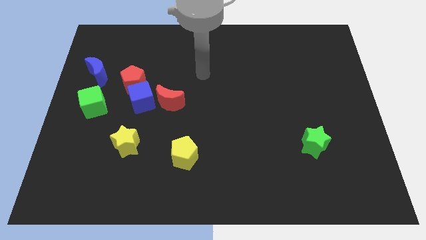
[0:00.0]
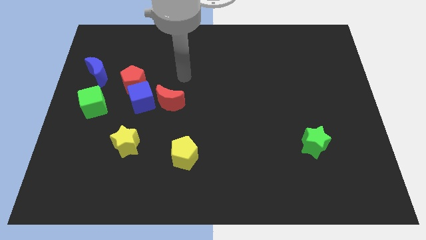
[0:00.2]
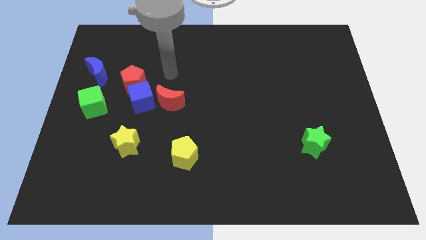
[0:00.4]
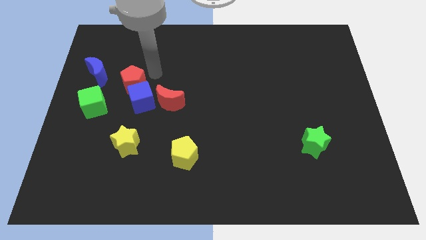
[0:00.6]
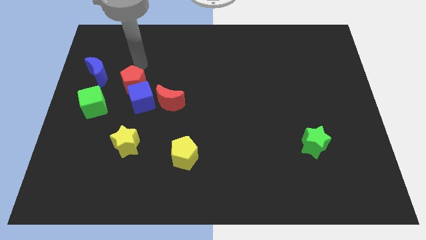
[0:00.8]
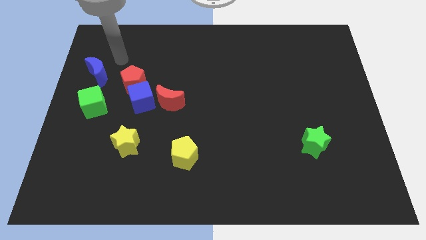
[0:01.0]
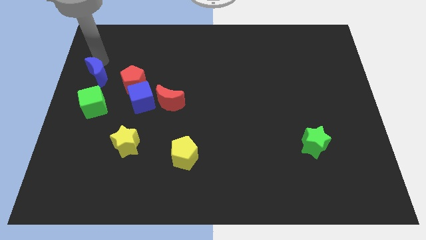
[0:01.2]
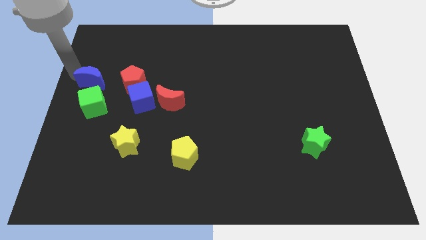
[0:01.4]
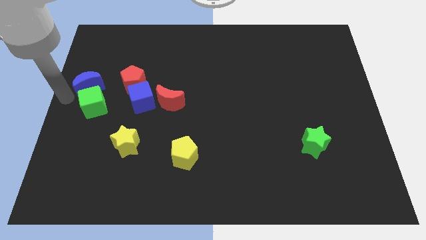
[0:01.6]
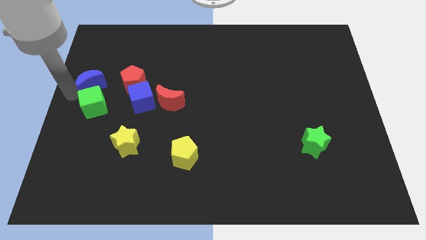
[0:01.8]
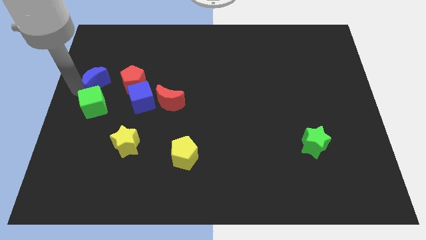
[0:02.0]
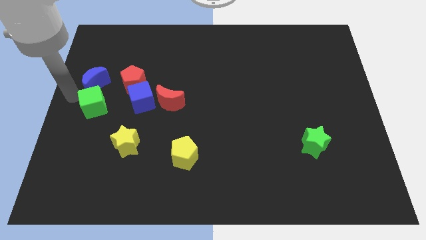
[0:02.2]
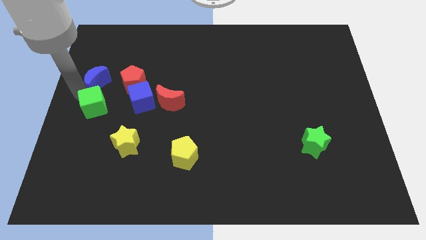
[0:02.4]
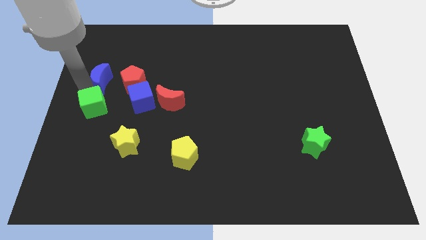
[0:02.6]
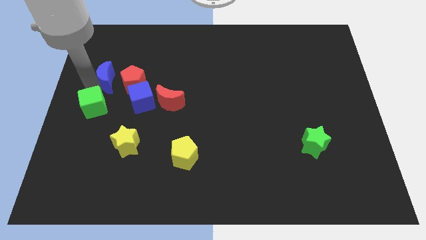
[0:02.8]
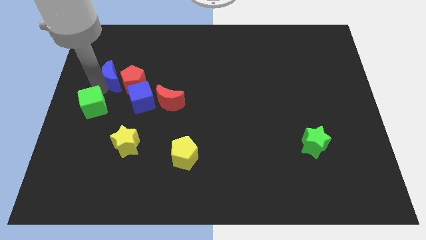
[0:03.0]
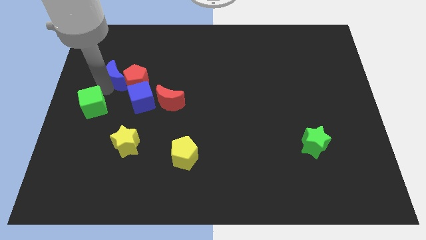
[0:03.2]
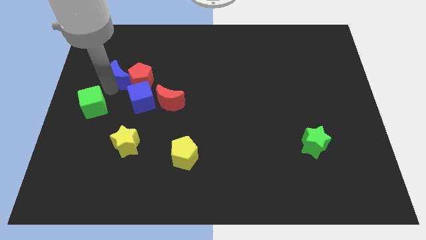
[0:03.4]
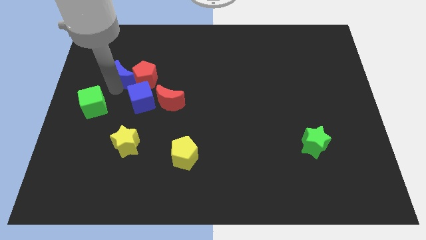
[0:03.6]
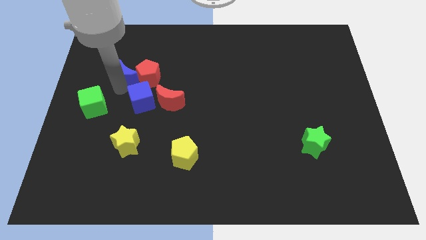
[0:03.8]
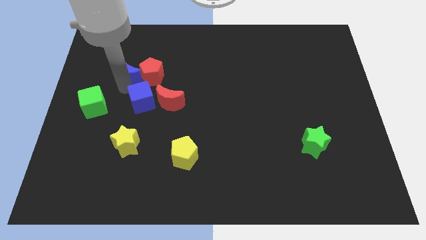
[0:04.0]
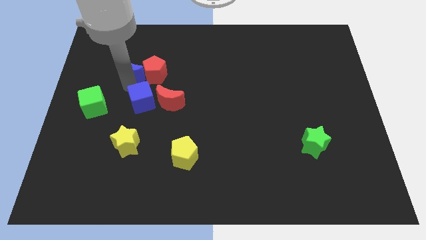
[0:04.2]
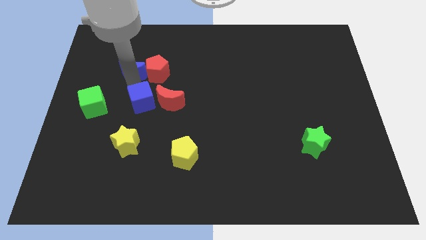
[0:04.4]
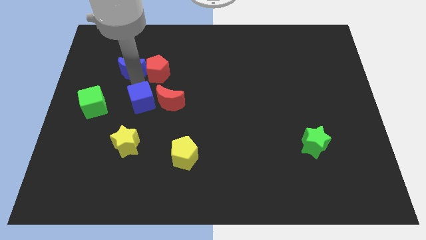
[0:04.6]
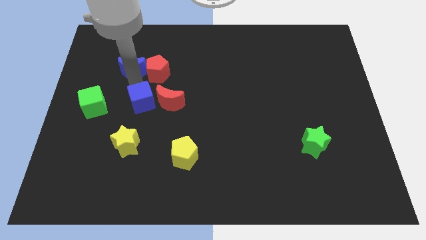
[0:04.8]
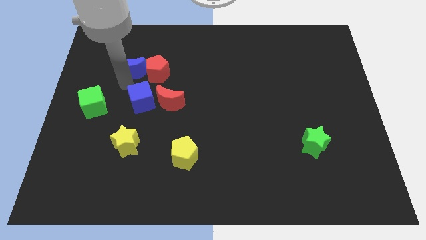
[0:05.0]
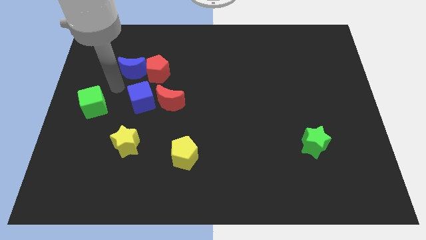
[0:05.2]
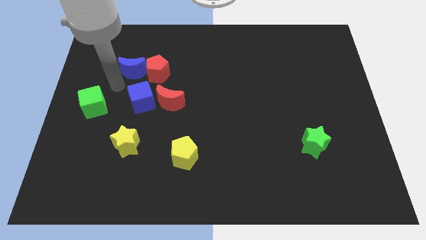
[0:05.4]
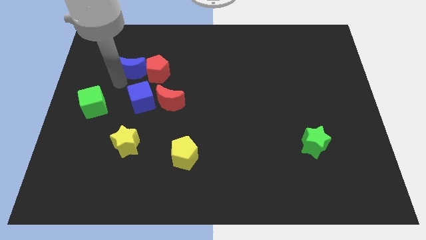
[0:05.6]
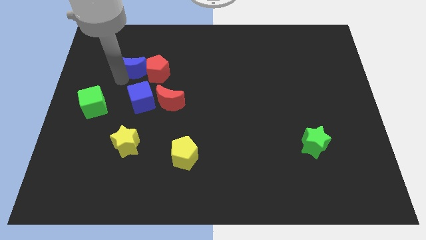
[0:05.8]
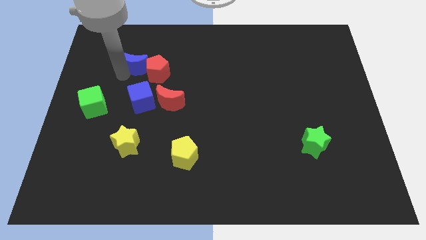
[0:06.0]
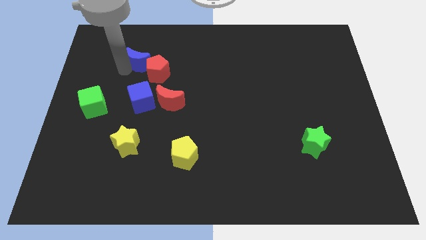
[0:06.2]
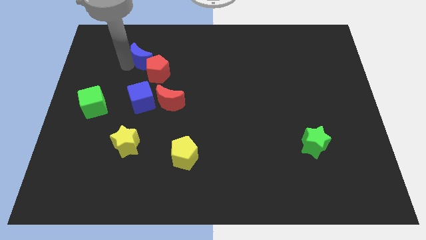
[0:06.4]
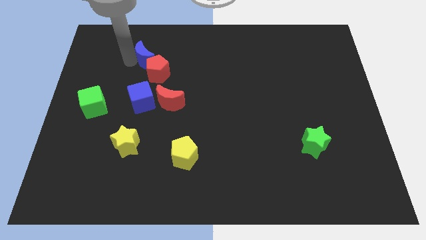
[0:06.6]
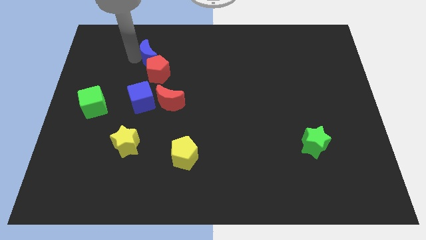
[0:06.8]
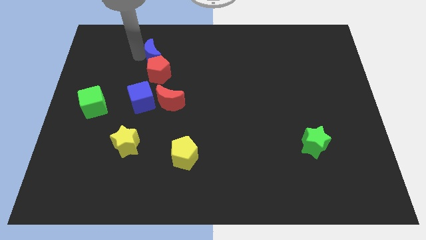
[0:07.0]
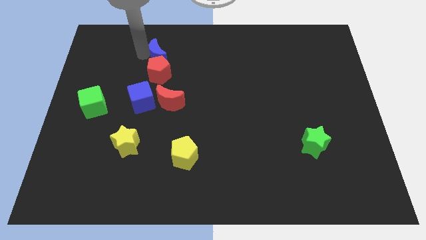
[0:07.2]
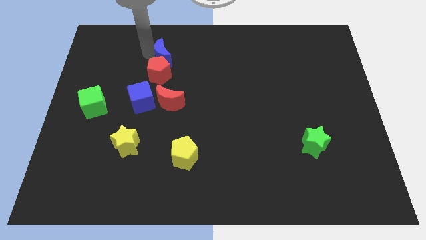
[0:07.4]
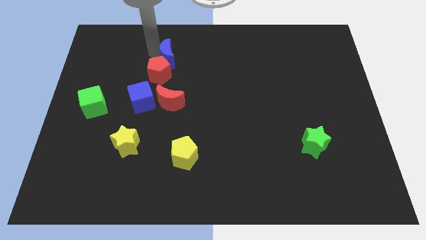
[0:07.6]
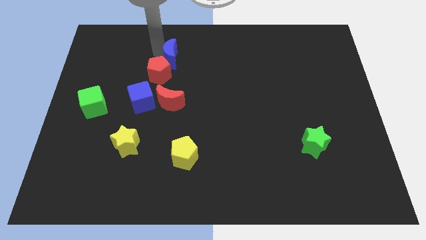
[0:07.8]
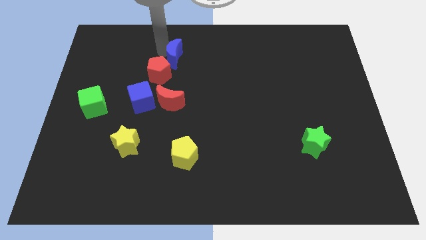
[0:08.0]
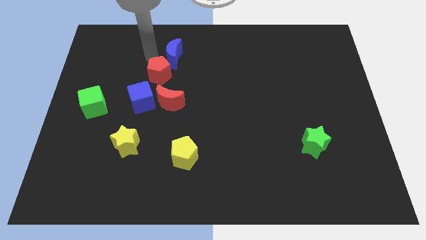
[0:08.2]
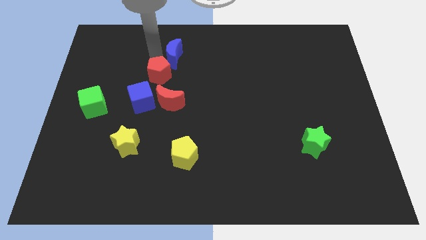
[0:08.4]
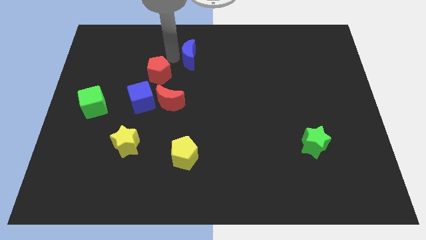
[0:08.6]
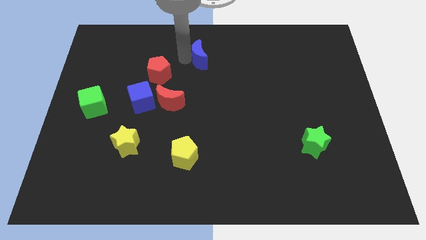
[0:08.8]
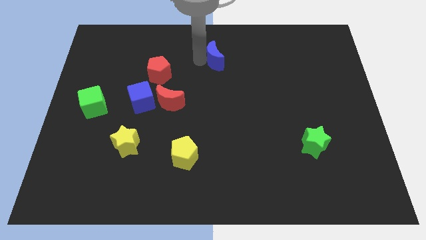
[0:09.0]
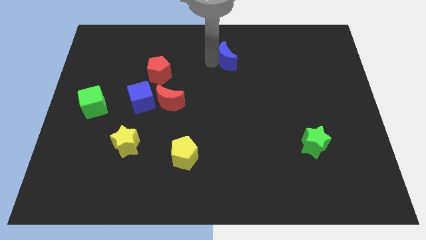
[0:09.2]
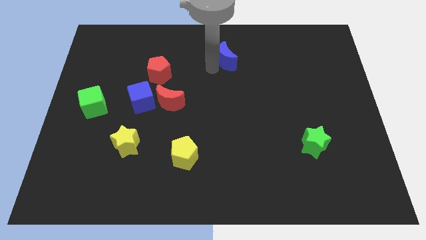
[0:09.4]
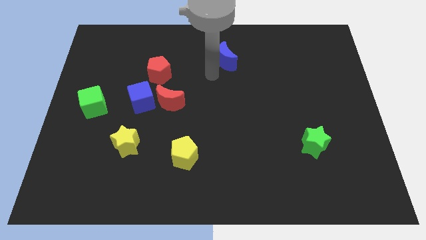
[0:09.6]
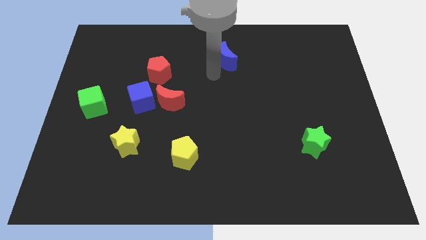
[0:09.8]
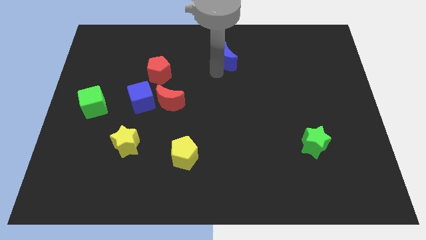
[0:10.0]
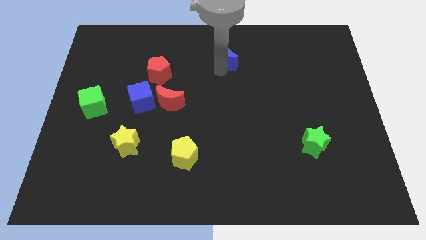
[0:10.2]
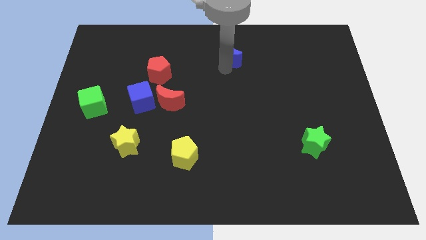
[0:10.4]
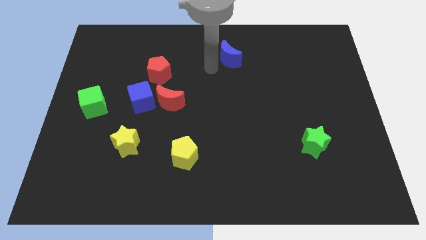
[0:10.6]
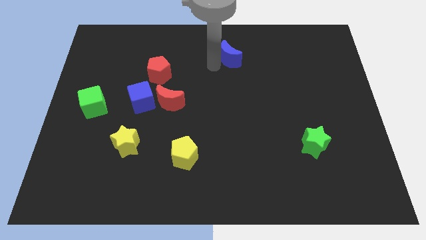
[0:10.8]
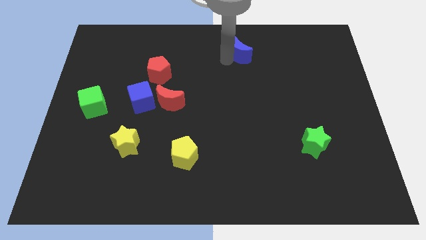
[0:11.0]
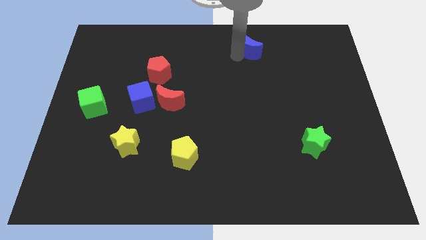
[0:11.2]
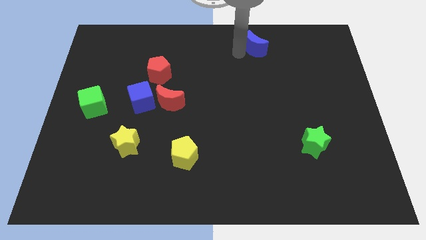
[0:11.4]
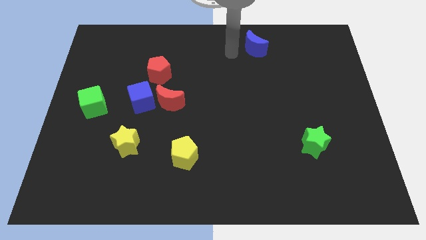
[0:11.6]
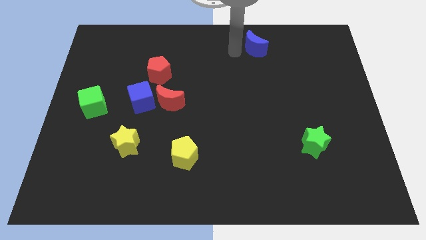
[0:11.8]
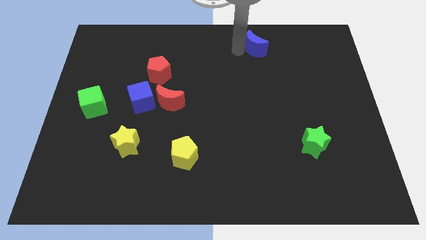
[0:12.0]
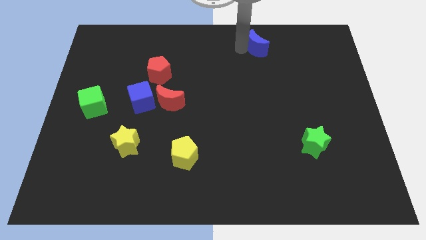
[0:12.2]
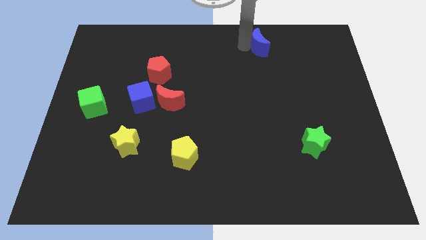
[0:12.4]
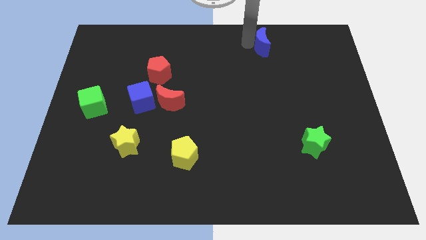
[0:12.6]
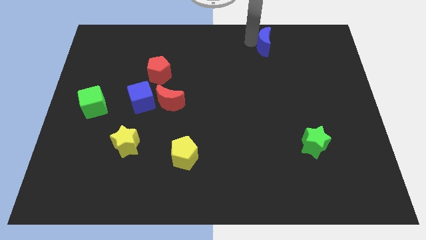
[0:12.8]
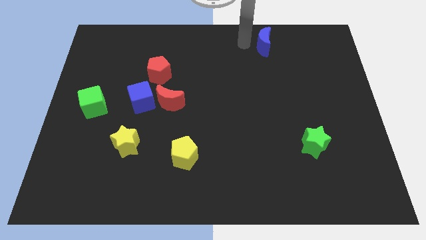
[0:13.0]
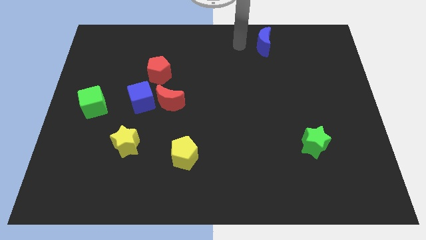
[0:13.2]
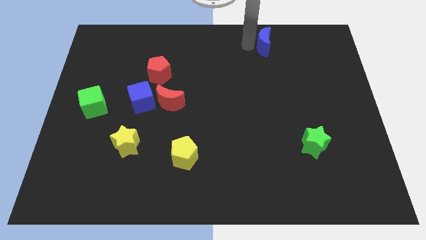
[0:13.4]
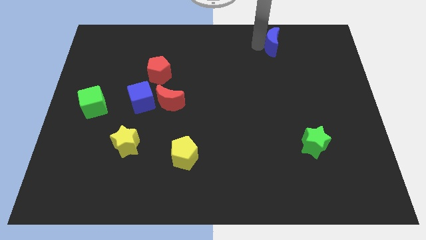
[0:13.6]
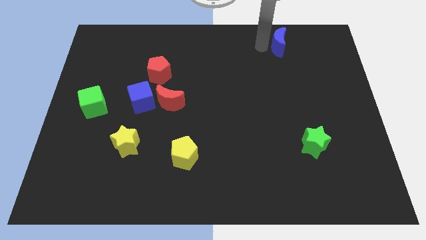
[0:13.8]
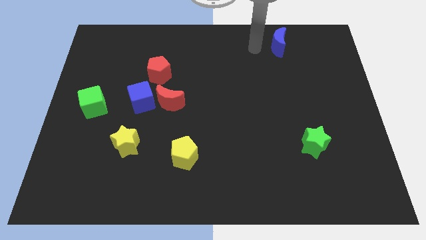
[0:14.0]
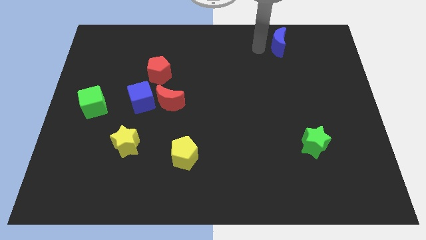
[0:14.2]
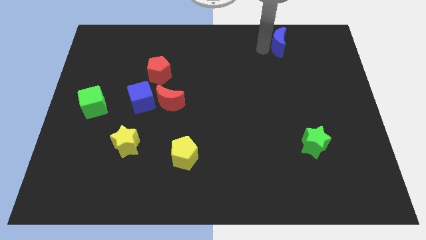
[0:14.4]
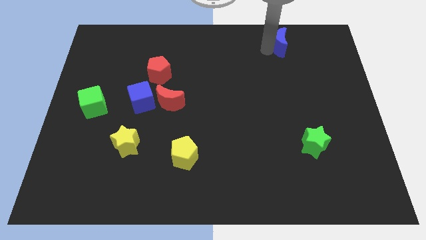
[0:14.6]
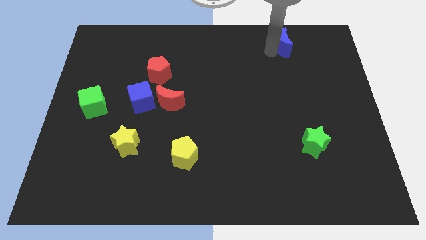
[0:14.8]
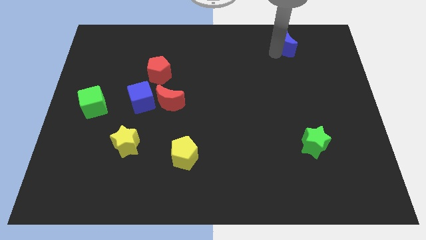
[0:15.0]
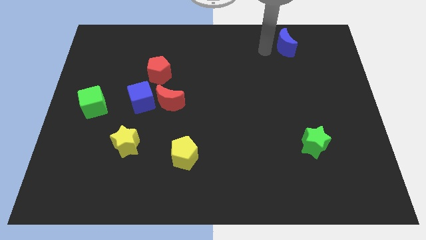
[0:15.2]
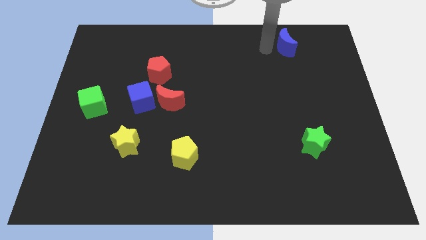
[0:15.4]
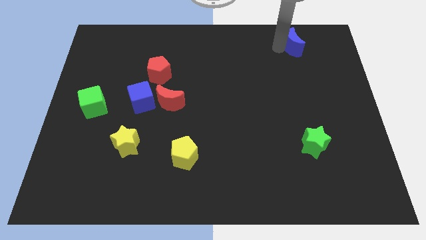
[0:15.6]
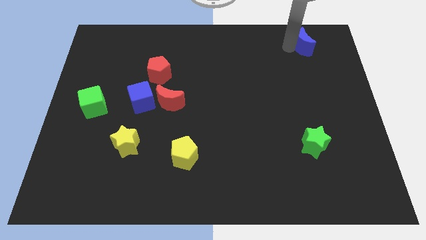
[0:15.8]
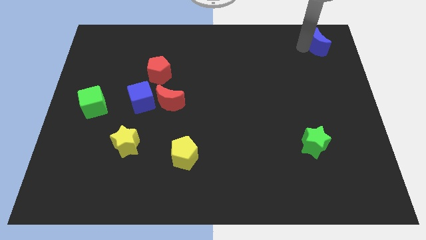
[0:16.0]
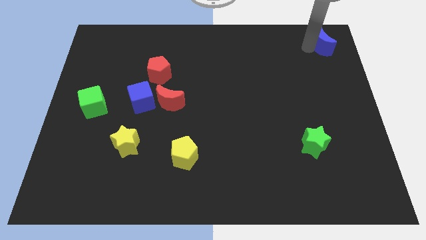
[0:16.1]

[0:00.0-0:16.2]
push the blue moon to the top right corner
